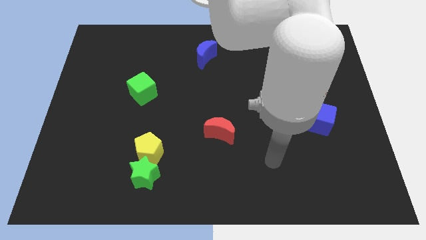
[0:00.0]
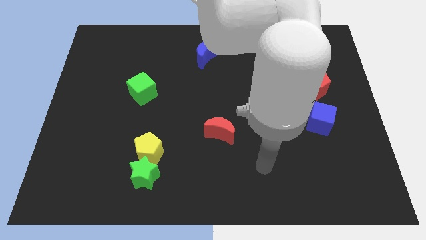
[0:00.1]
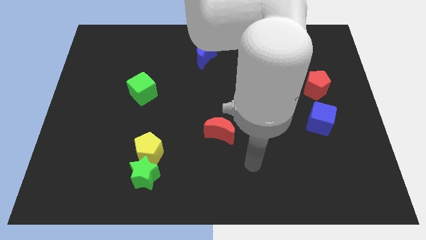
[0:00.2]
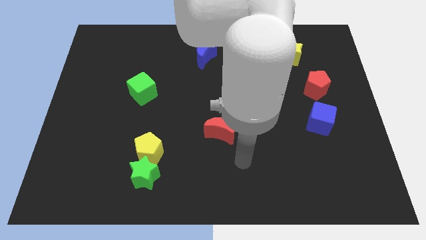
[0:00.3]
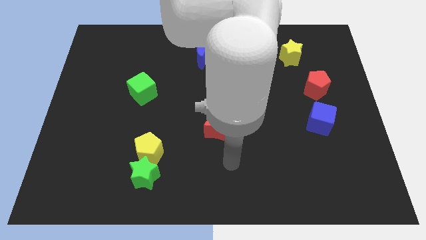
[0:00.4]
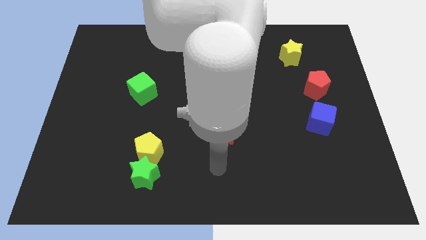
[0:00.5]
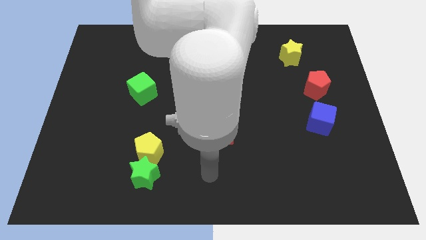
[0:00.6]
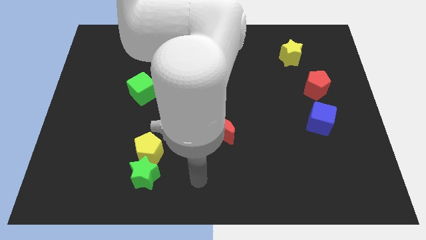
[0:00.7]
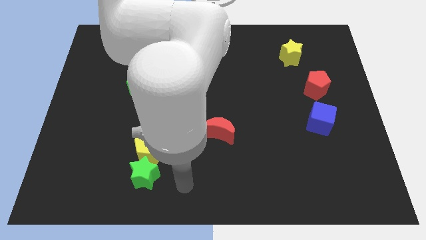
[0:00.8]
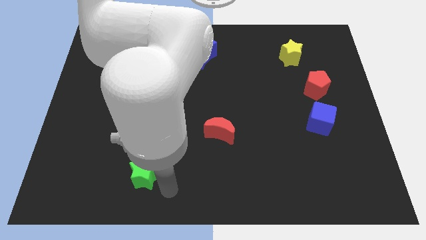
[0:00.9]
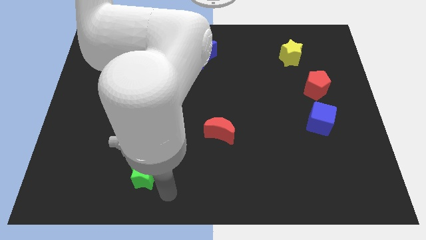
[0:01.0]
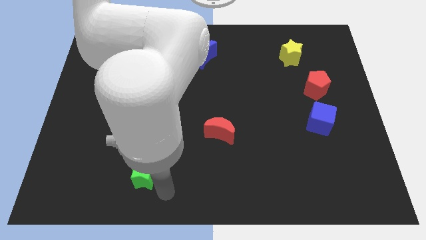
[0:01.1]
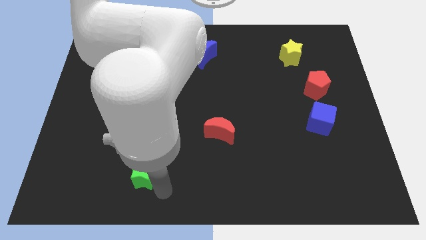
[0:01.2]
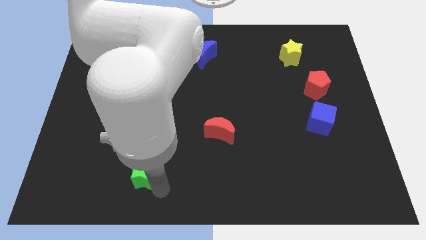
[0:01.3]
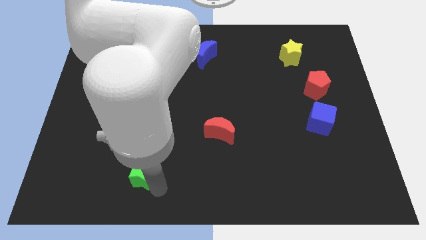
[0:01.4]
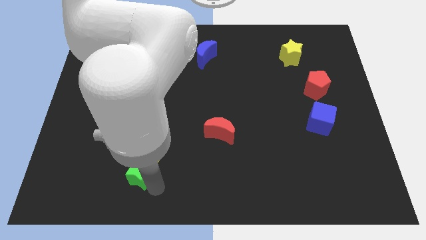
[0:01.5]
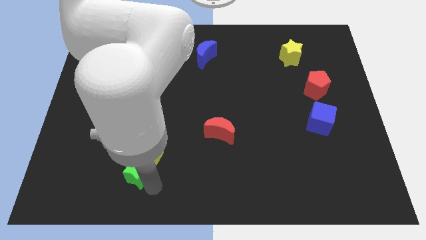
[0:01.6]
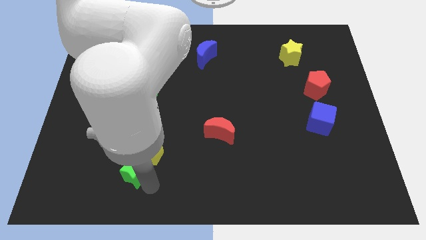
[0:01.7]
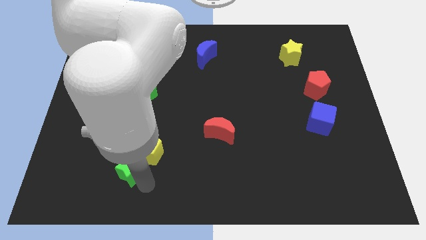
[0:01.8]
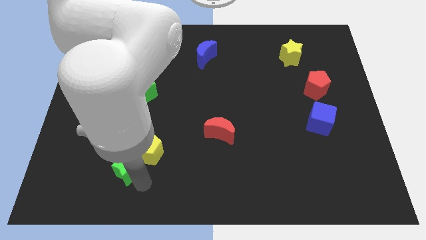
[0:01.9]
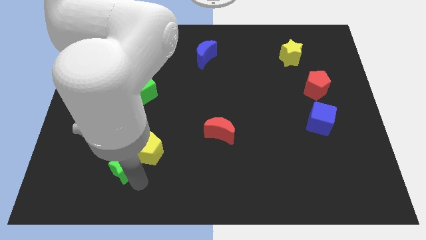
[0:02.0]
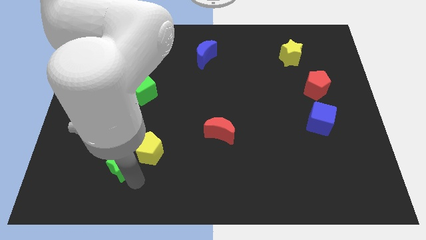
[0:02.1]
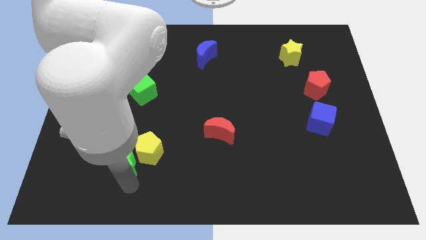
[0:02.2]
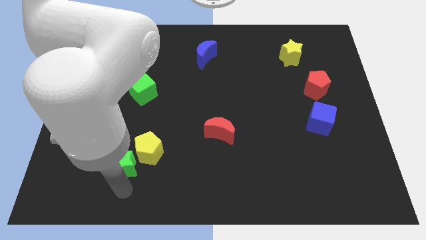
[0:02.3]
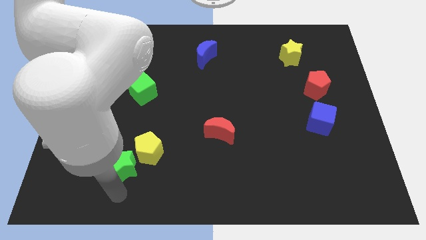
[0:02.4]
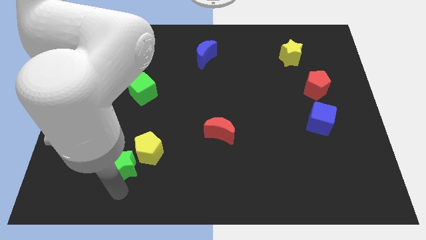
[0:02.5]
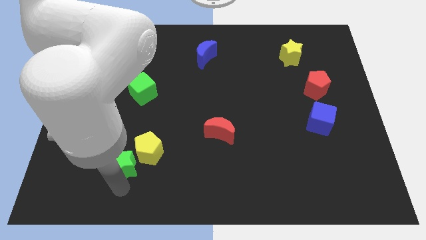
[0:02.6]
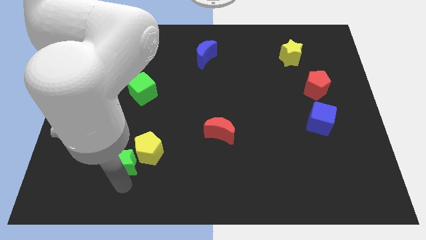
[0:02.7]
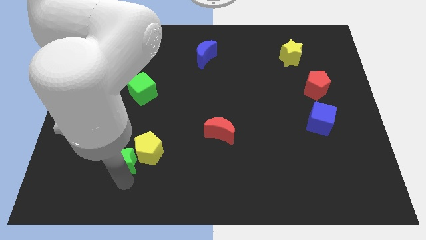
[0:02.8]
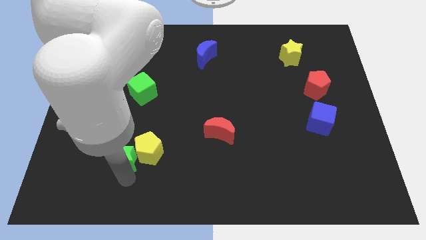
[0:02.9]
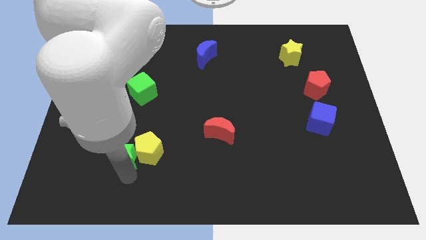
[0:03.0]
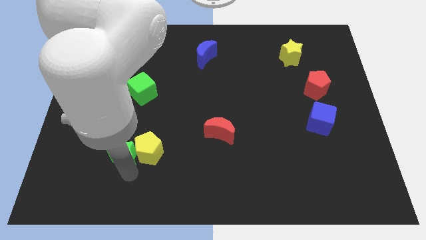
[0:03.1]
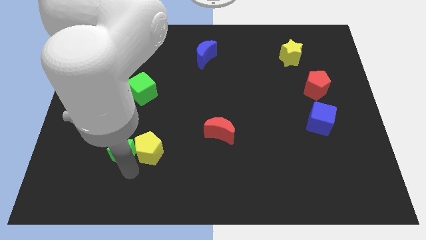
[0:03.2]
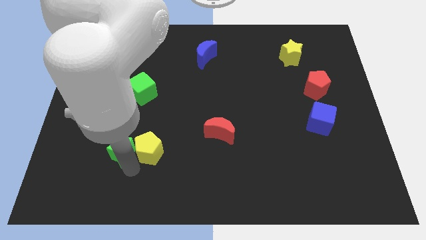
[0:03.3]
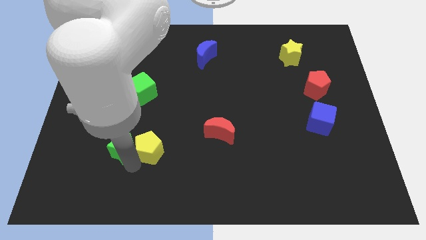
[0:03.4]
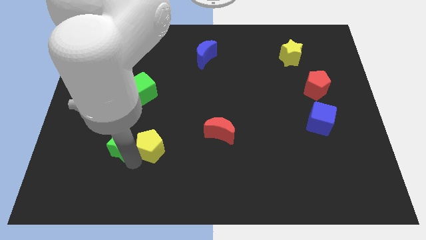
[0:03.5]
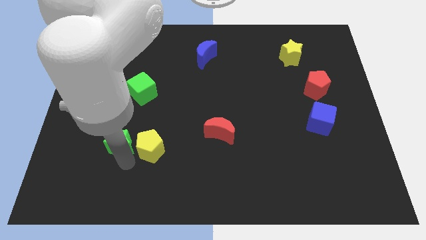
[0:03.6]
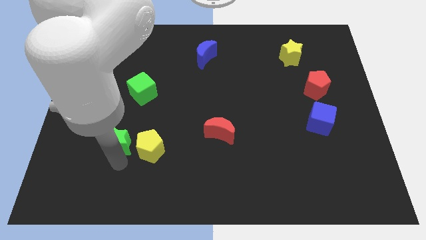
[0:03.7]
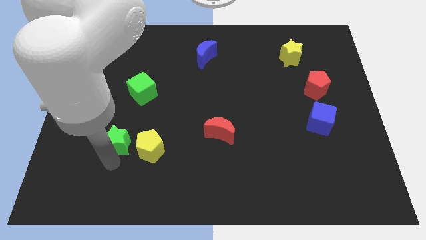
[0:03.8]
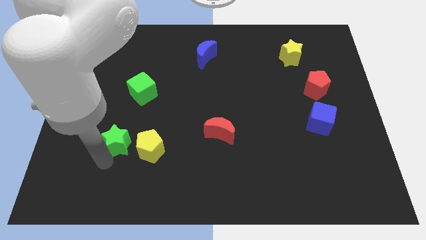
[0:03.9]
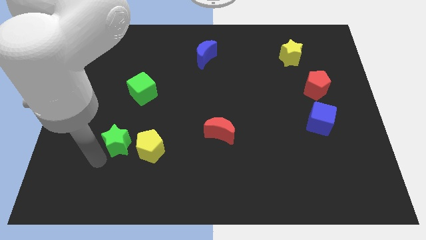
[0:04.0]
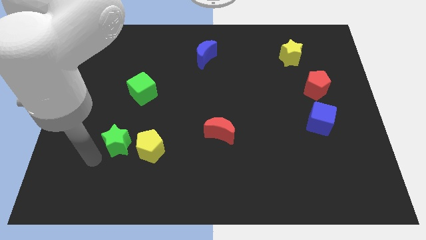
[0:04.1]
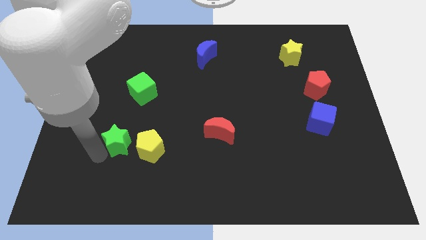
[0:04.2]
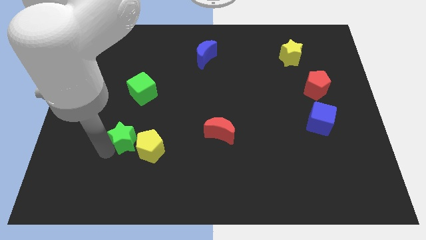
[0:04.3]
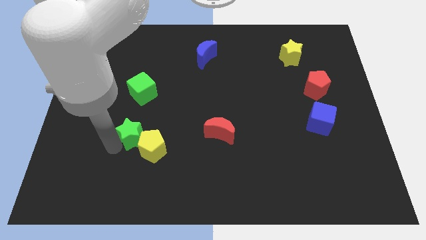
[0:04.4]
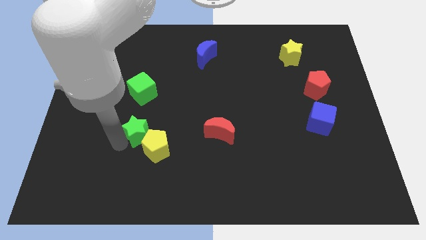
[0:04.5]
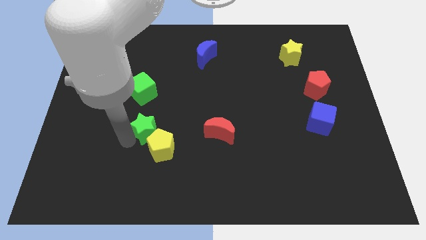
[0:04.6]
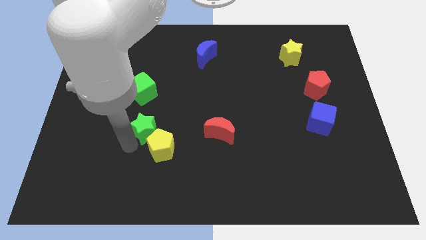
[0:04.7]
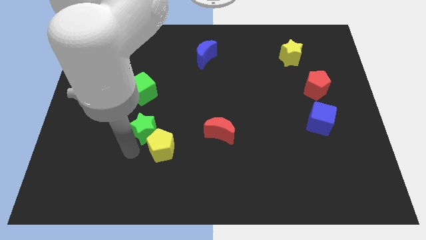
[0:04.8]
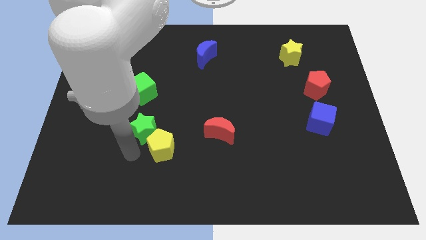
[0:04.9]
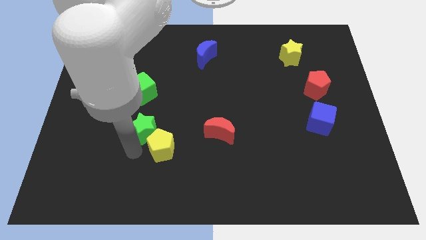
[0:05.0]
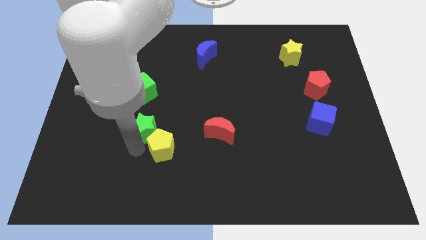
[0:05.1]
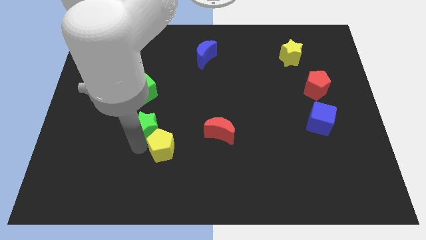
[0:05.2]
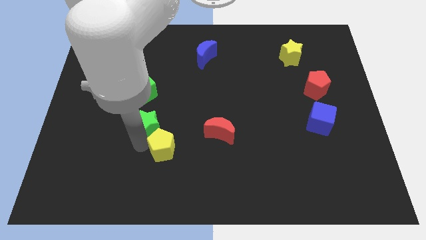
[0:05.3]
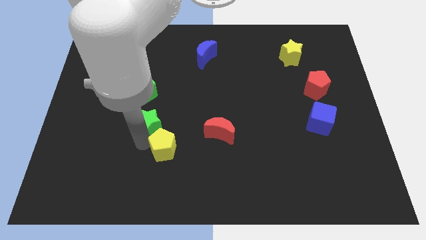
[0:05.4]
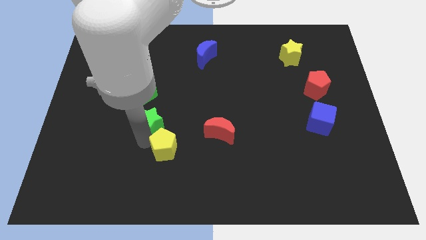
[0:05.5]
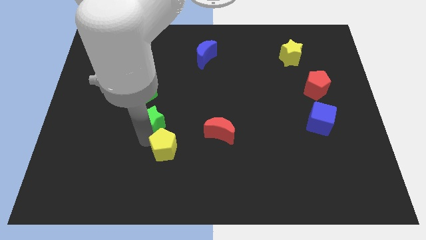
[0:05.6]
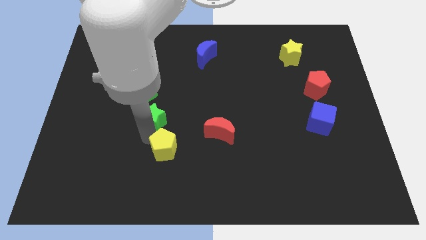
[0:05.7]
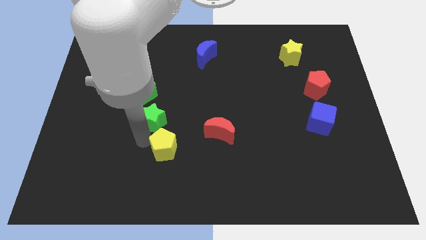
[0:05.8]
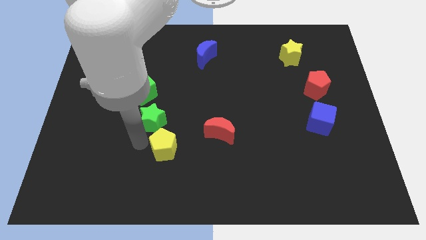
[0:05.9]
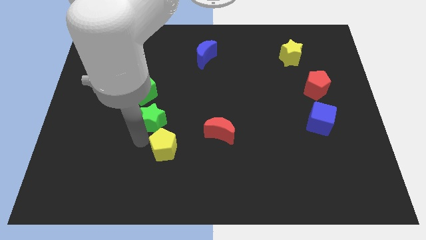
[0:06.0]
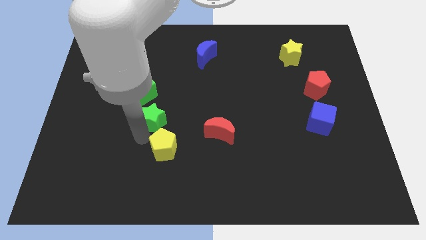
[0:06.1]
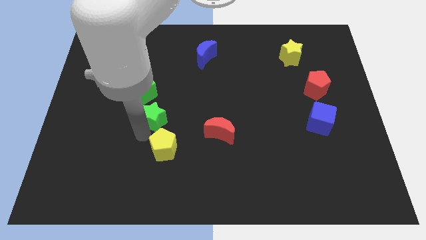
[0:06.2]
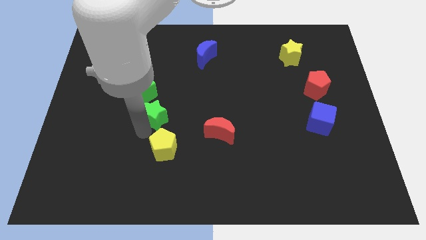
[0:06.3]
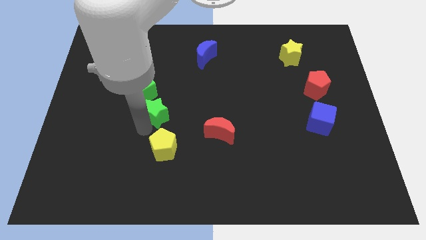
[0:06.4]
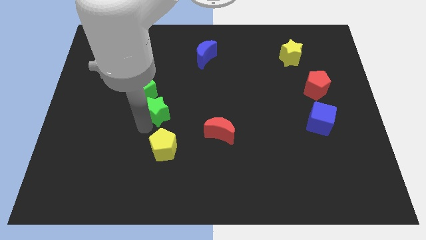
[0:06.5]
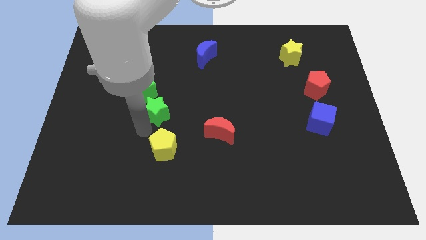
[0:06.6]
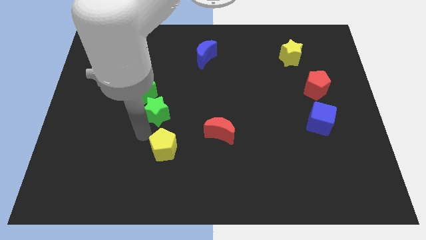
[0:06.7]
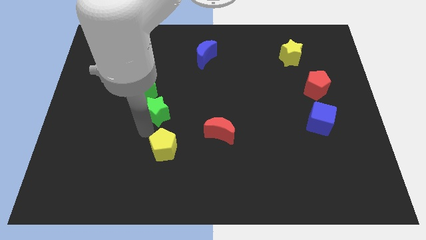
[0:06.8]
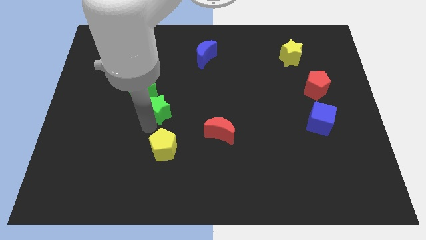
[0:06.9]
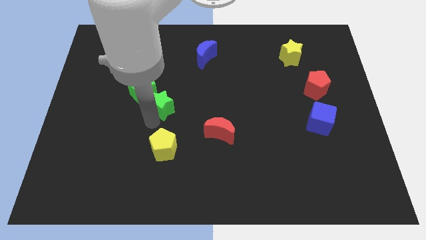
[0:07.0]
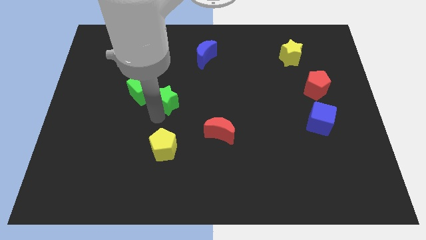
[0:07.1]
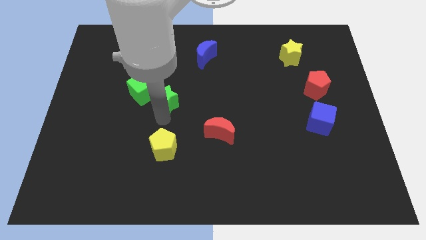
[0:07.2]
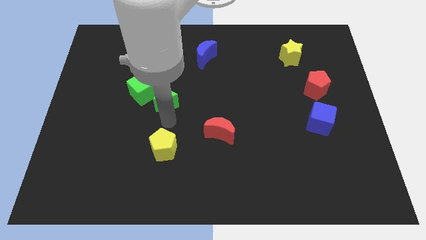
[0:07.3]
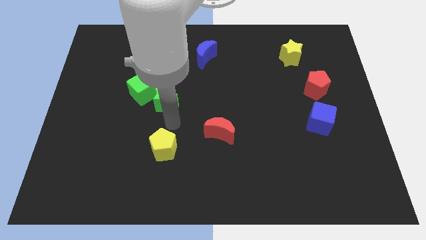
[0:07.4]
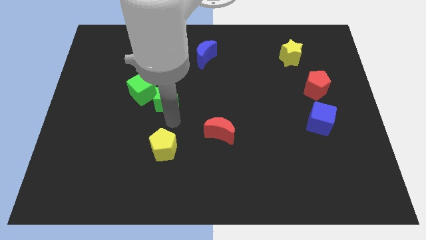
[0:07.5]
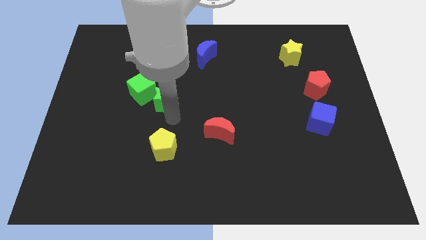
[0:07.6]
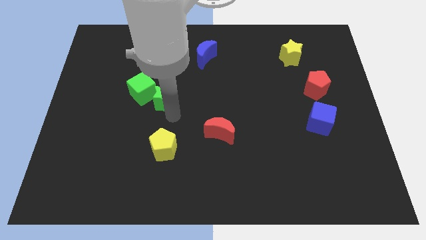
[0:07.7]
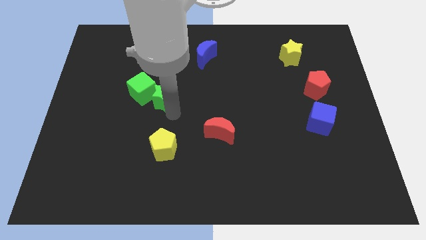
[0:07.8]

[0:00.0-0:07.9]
move the green star upwards
